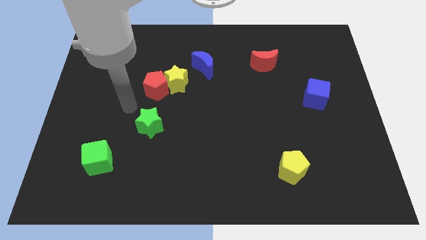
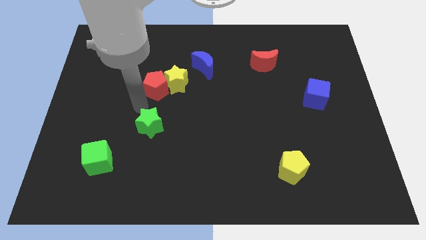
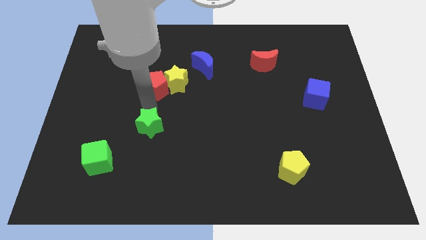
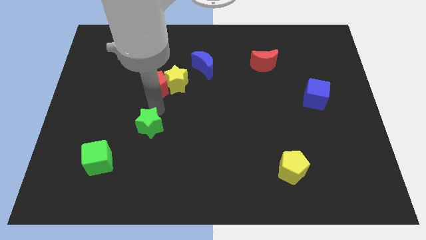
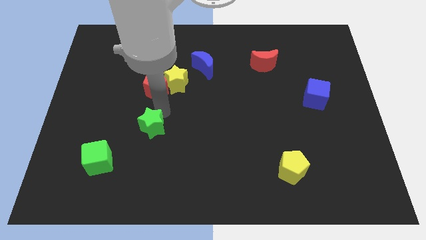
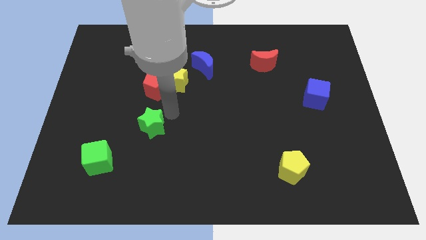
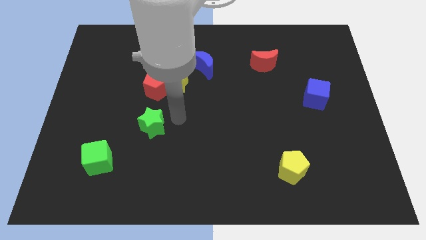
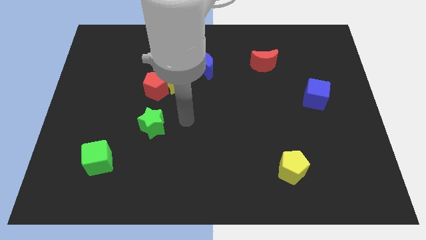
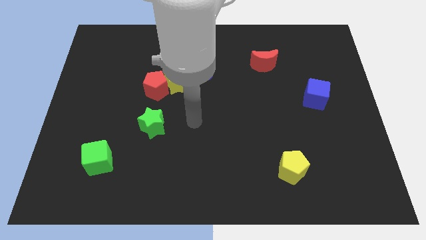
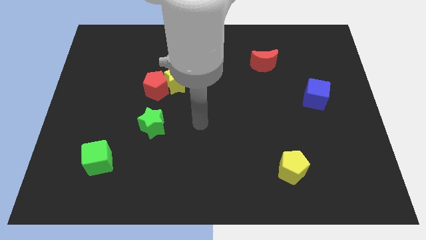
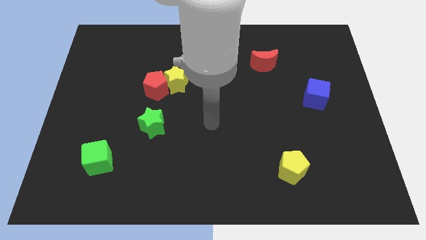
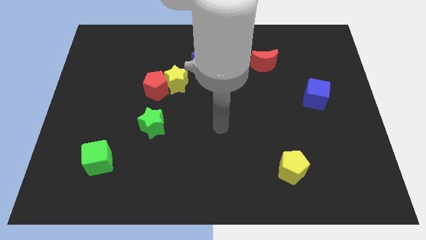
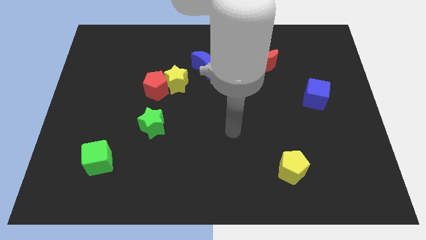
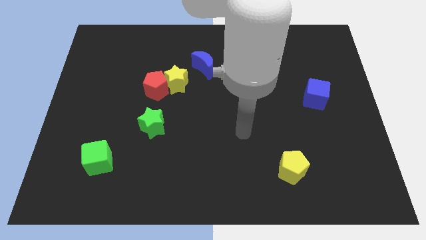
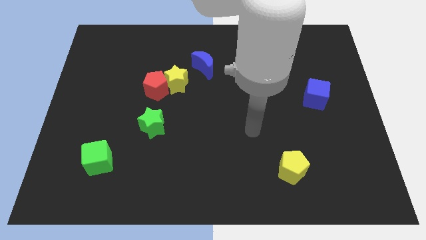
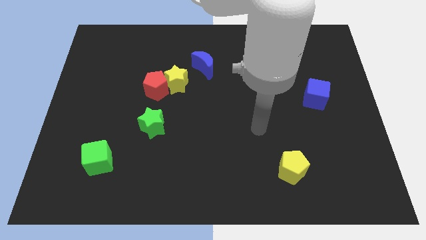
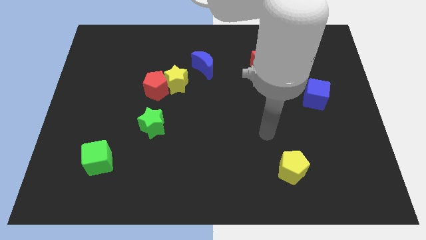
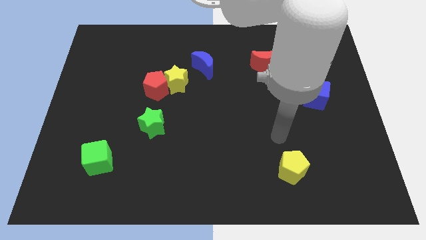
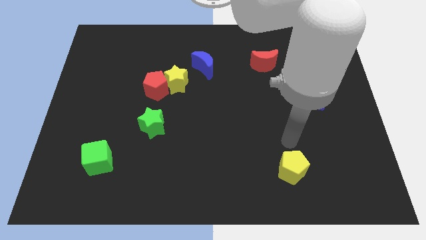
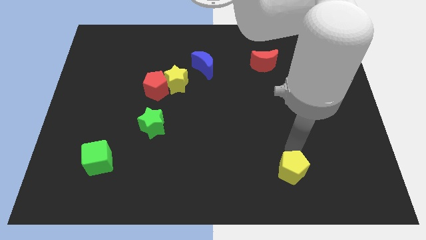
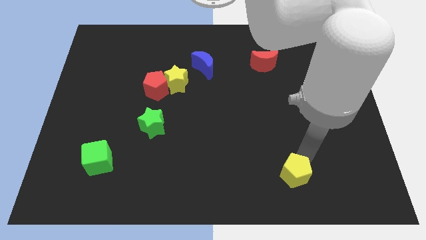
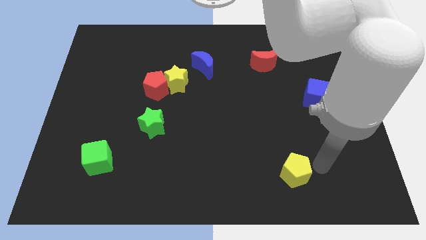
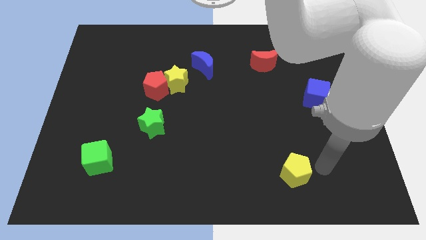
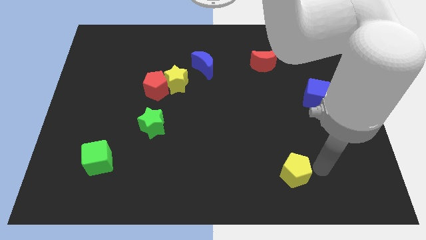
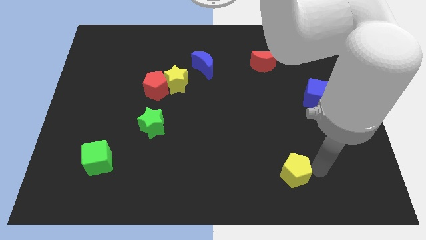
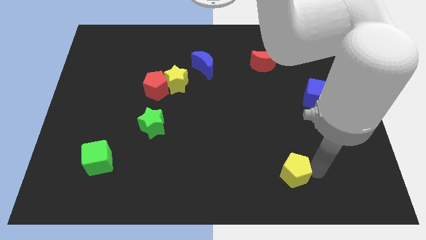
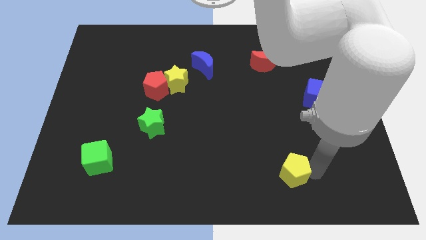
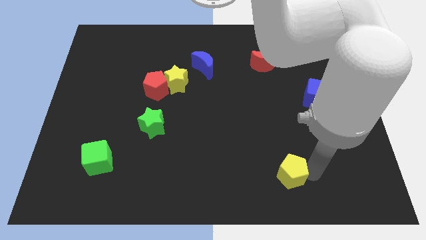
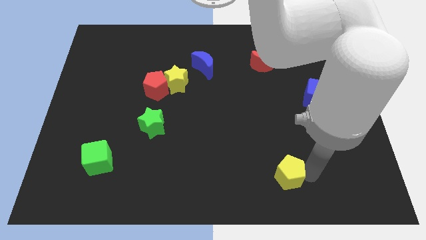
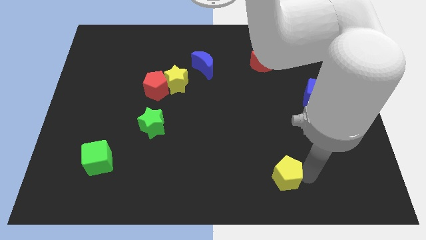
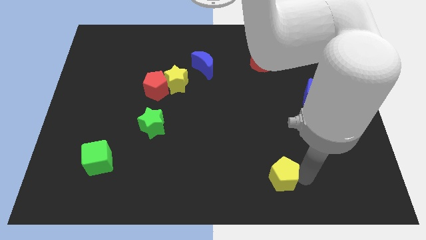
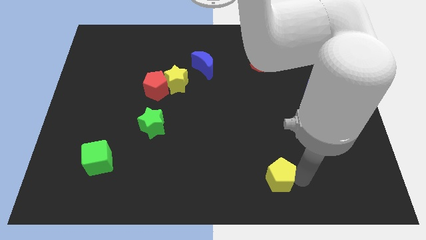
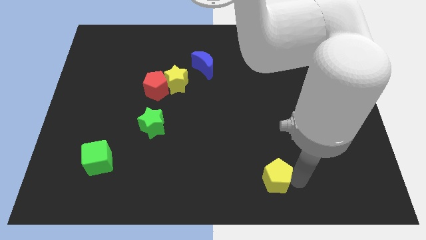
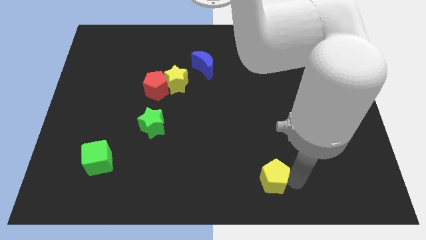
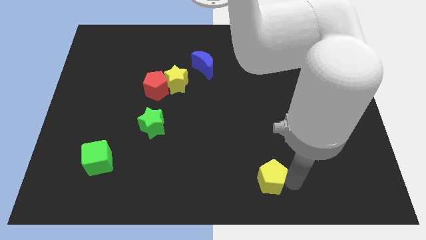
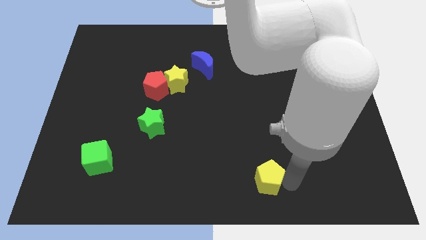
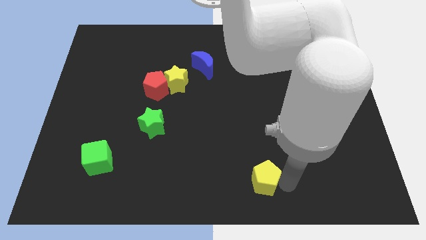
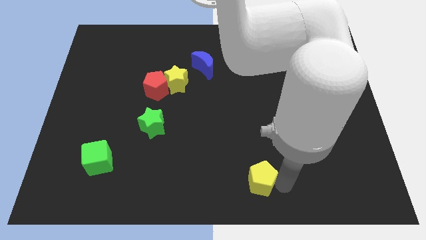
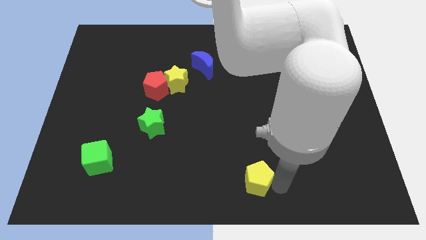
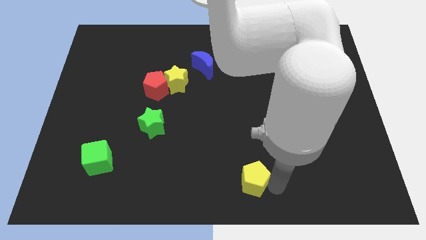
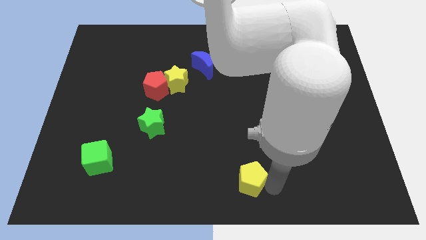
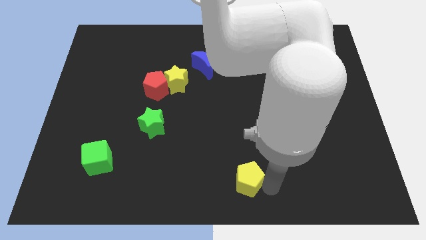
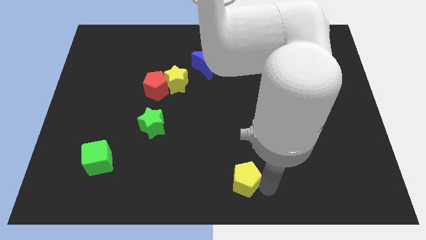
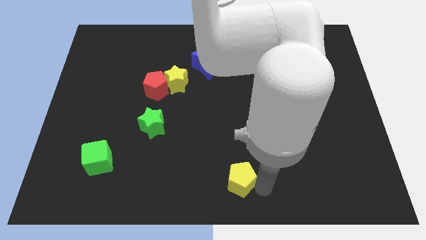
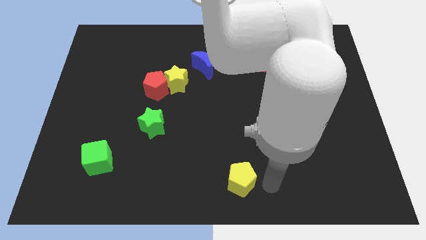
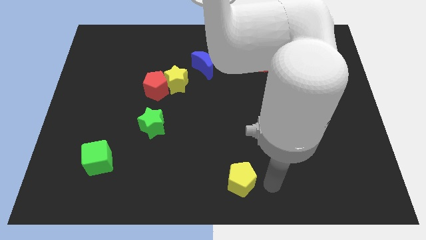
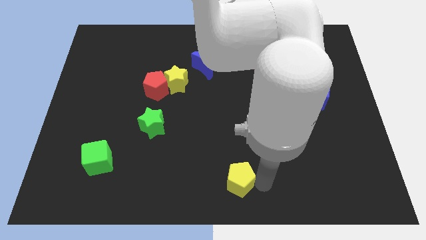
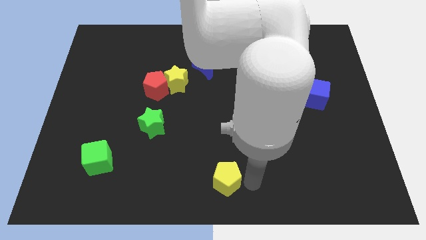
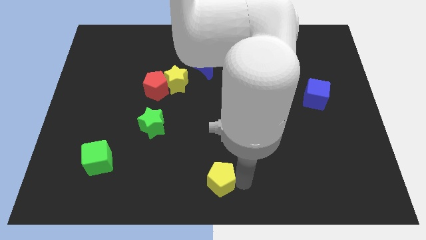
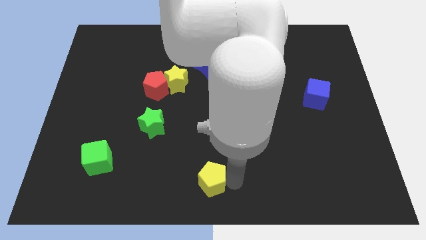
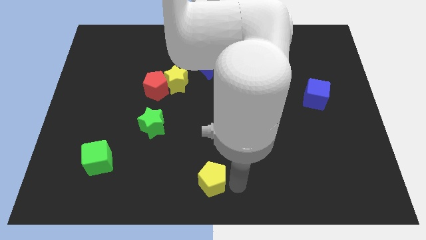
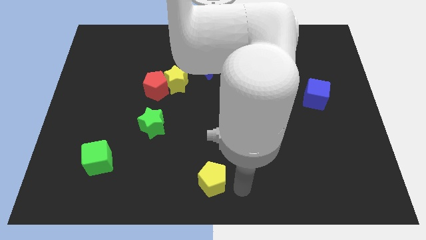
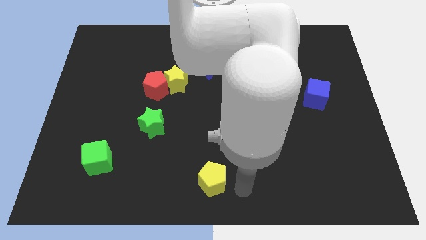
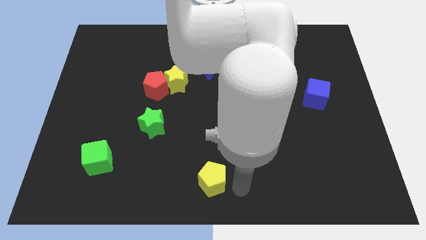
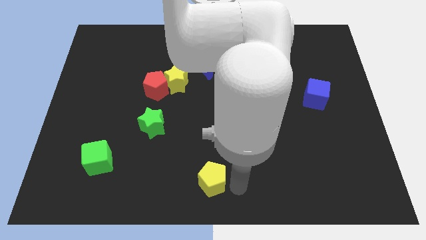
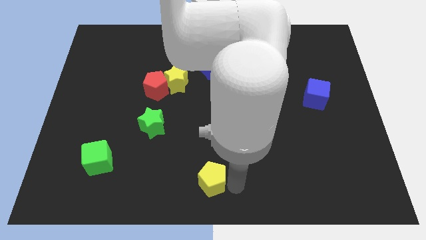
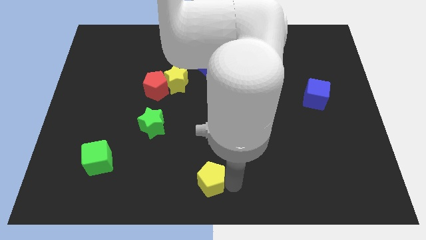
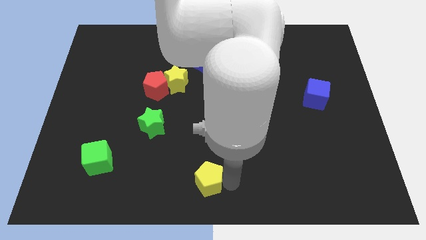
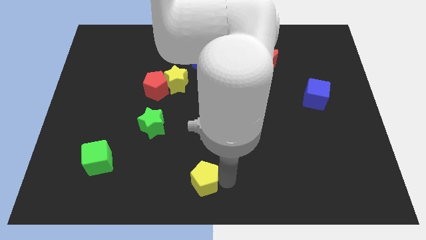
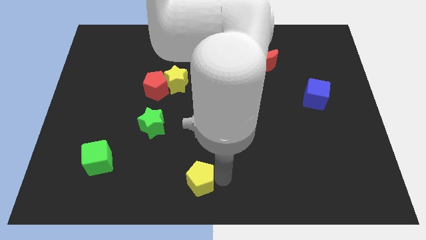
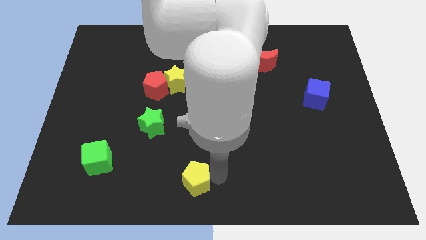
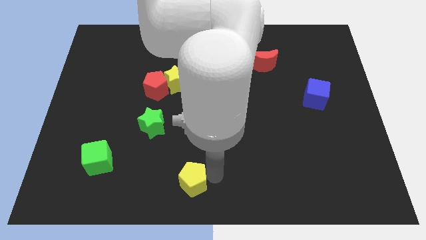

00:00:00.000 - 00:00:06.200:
push the yellow pentagon left

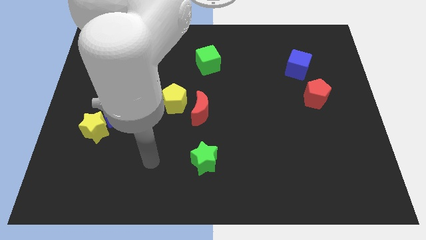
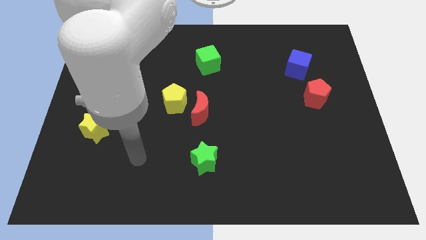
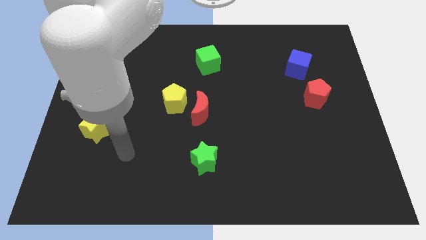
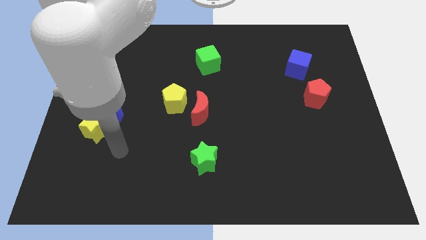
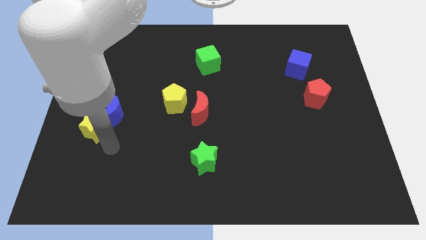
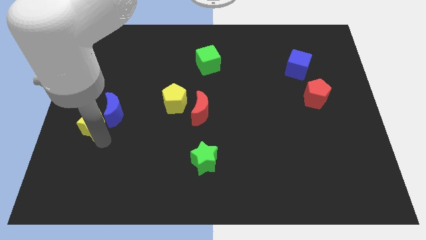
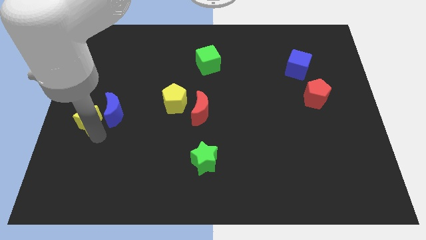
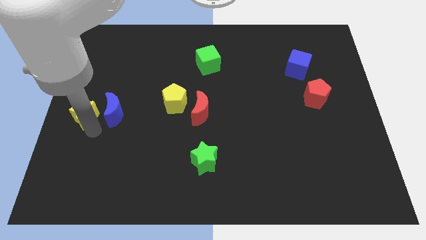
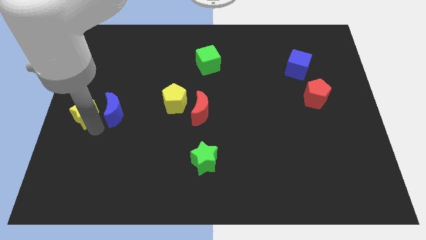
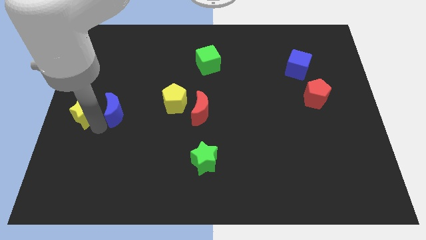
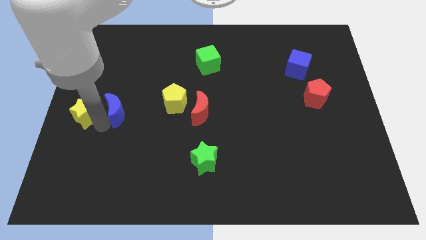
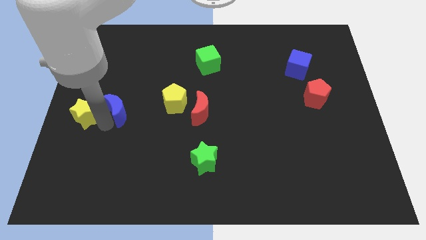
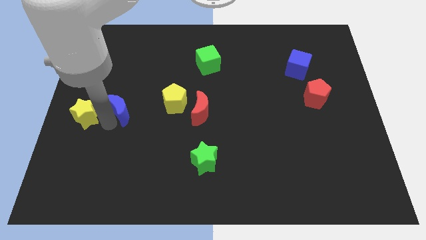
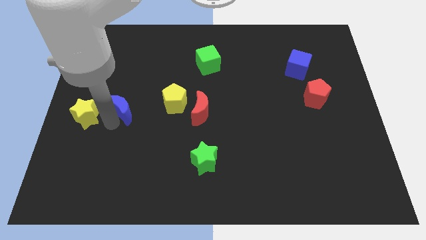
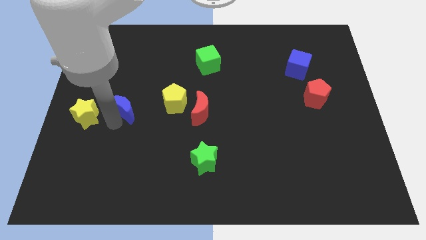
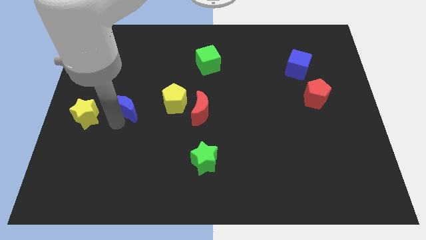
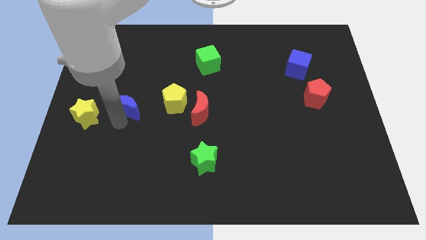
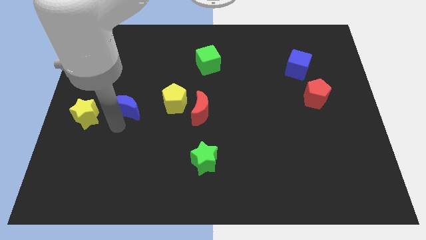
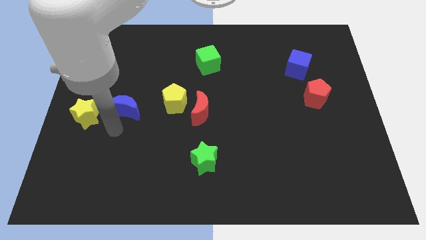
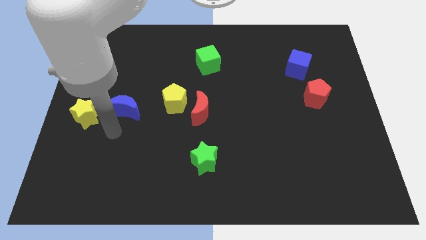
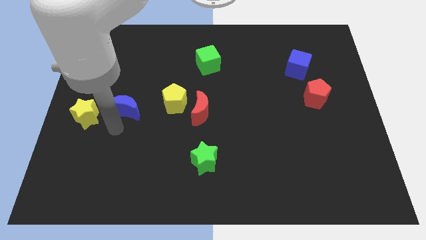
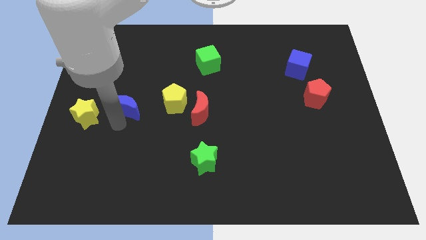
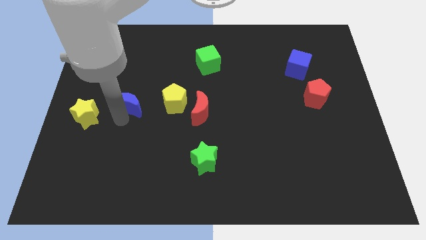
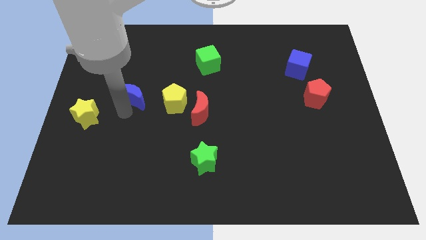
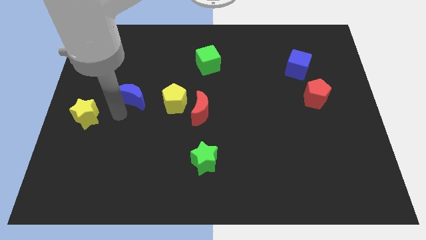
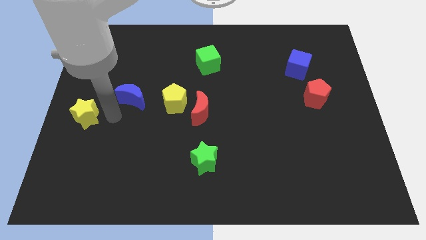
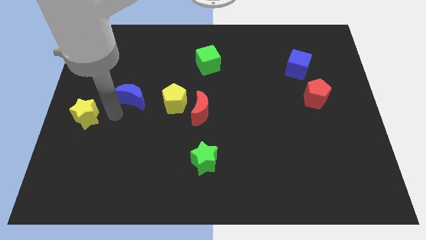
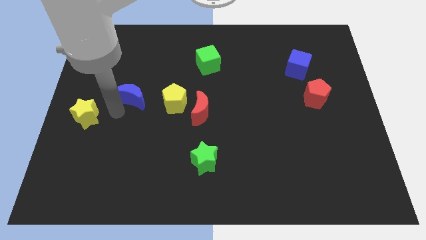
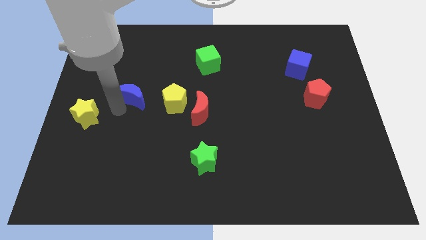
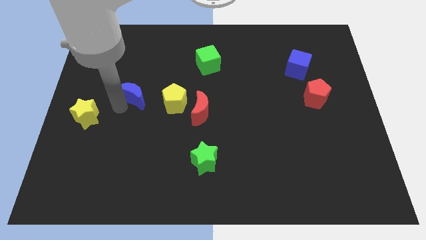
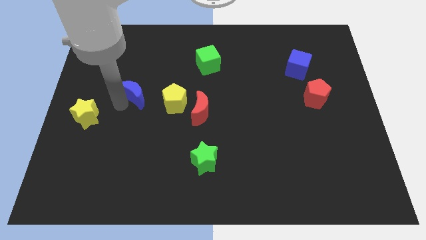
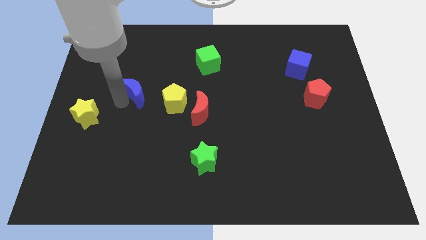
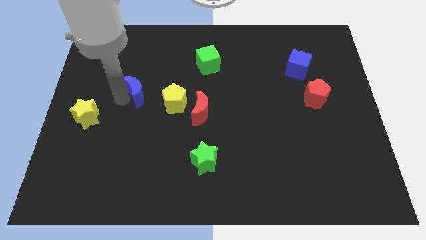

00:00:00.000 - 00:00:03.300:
move the blue moon slightly upwards and then to the right
